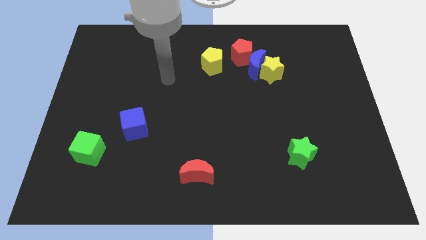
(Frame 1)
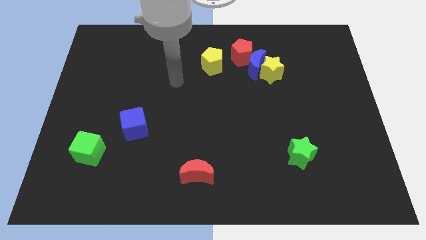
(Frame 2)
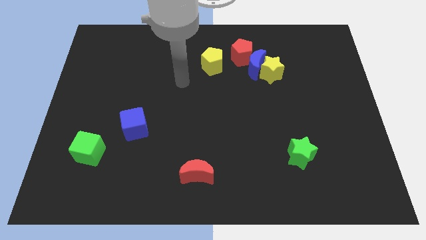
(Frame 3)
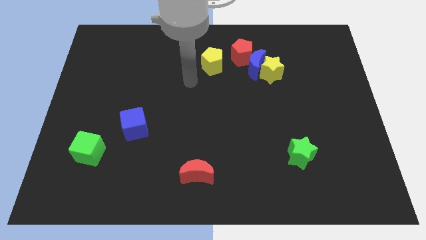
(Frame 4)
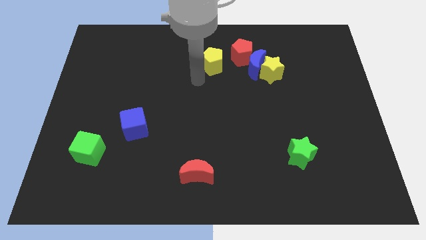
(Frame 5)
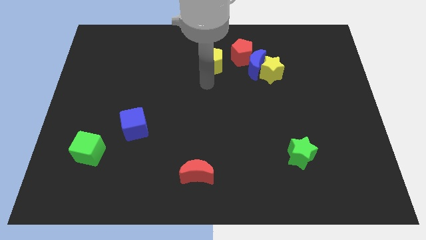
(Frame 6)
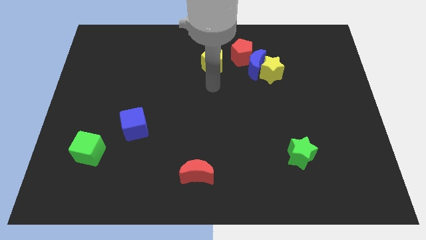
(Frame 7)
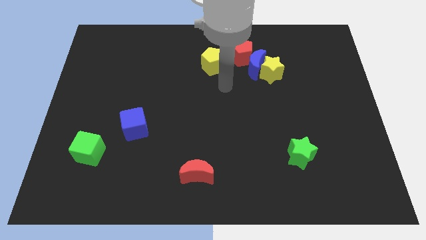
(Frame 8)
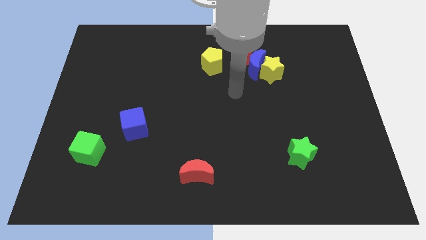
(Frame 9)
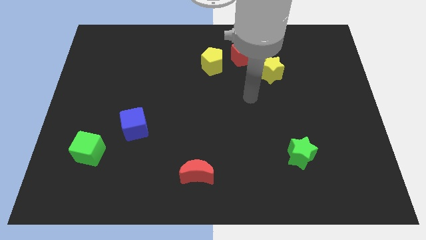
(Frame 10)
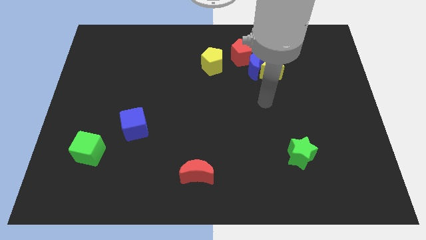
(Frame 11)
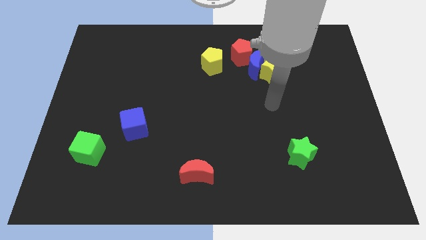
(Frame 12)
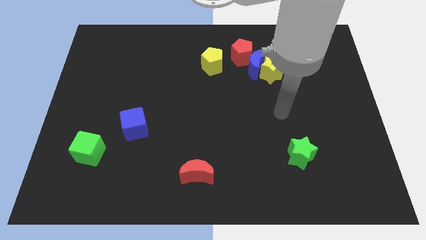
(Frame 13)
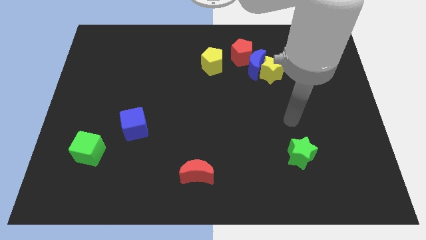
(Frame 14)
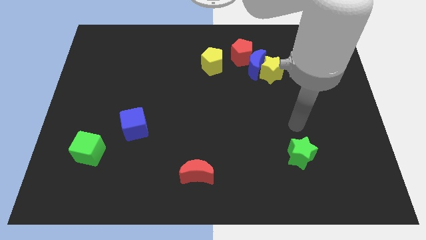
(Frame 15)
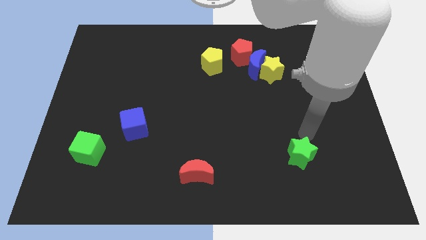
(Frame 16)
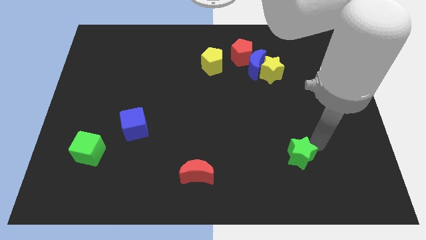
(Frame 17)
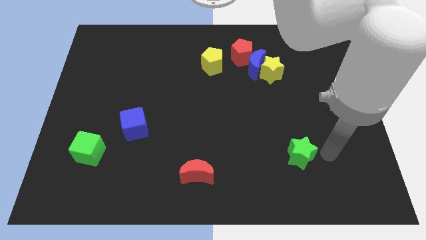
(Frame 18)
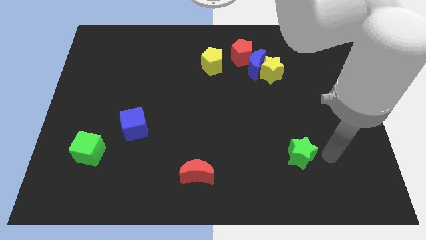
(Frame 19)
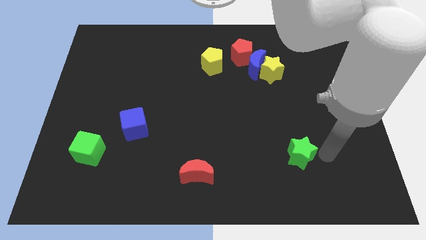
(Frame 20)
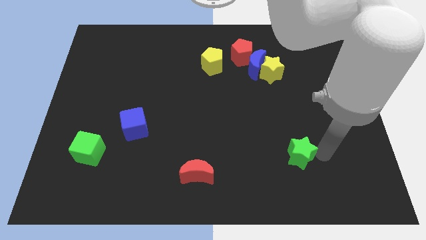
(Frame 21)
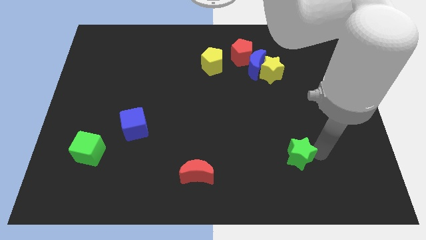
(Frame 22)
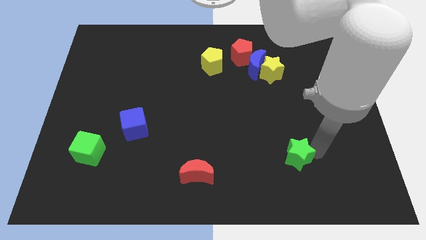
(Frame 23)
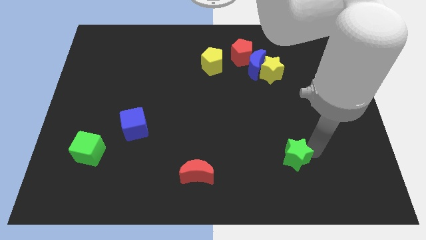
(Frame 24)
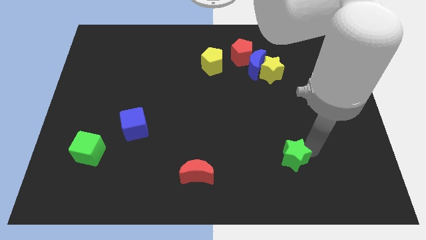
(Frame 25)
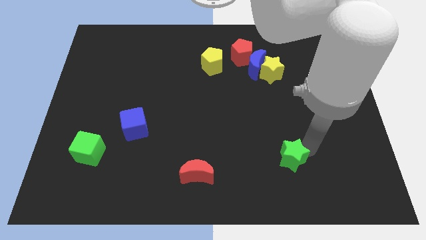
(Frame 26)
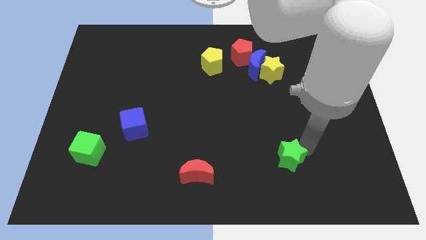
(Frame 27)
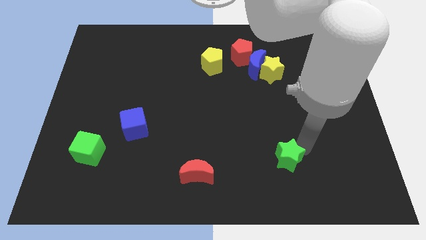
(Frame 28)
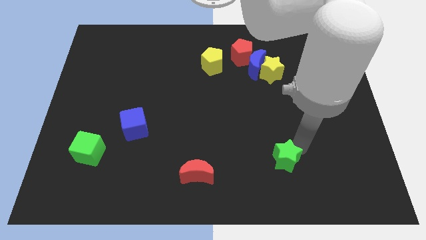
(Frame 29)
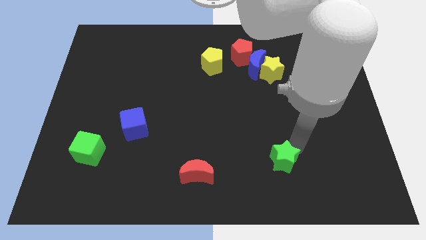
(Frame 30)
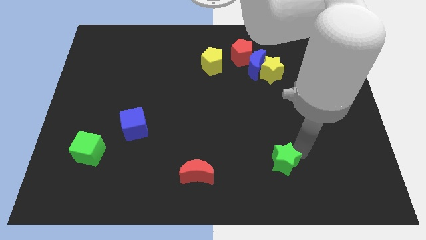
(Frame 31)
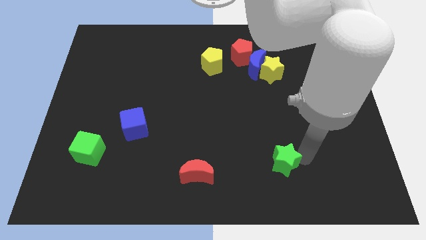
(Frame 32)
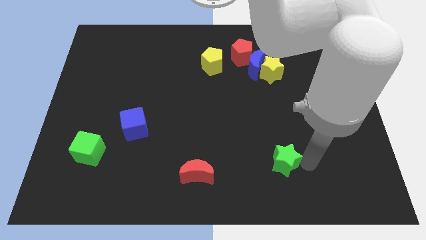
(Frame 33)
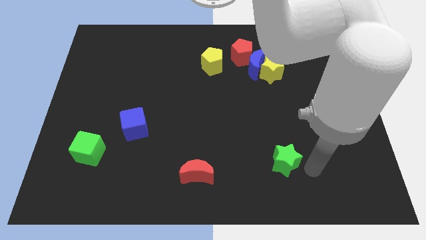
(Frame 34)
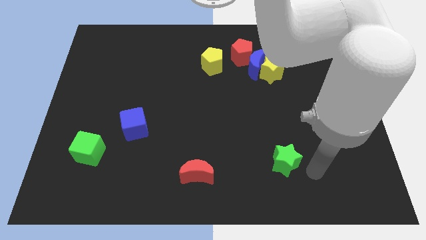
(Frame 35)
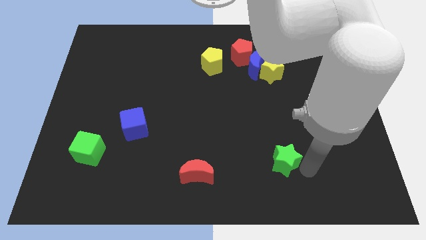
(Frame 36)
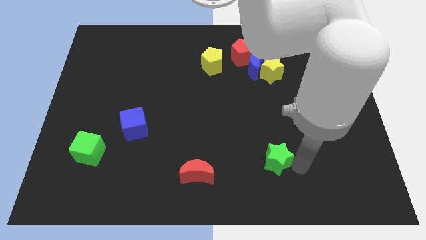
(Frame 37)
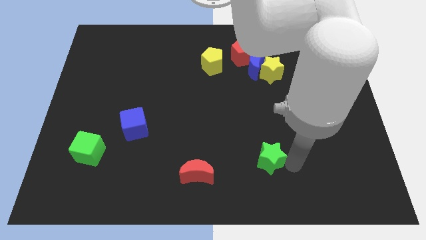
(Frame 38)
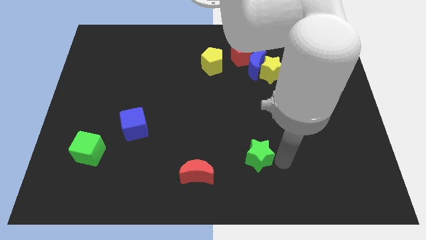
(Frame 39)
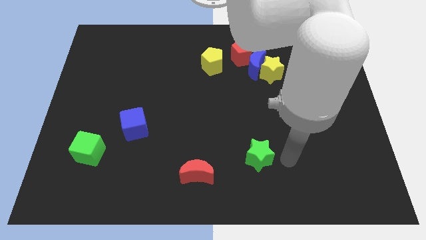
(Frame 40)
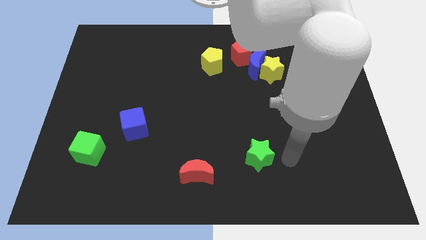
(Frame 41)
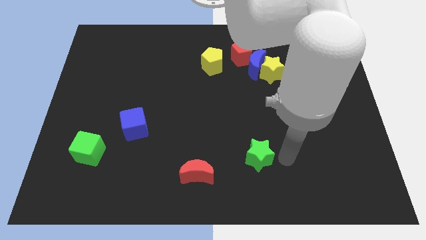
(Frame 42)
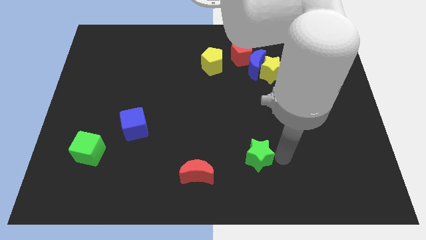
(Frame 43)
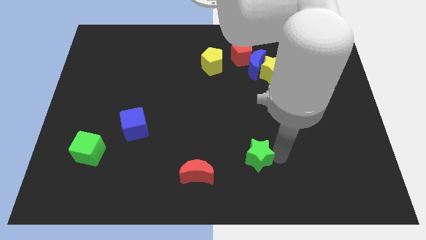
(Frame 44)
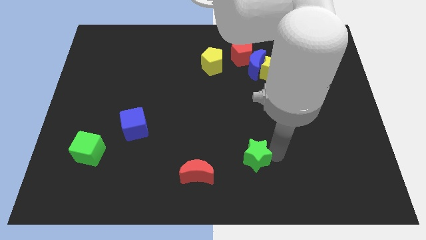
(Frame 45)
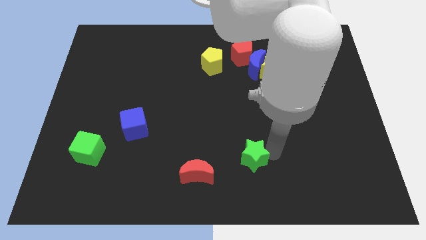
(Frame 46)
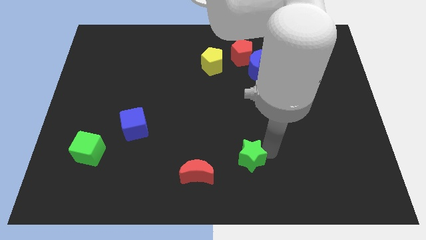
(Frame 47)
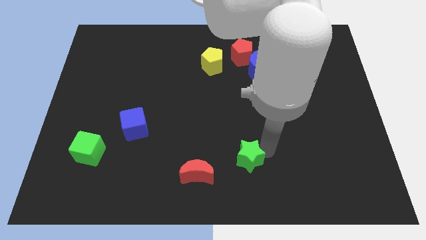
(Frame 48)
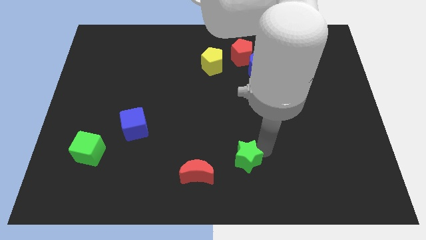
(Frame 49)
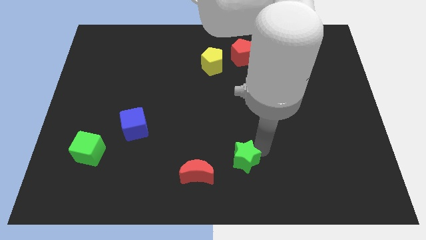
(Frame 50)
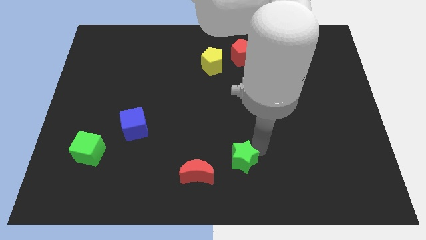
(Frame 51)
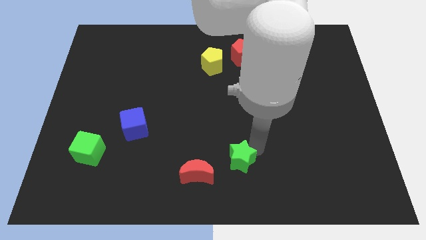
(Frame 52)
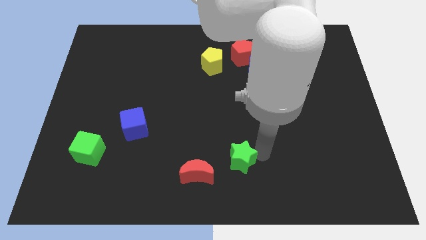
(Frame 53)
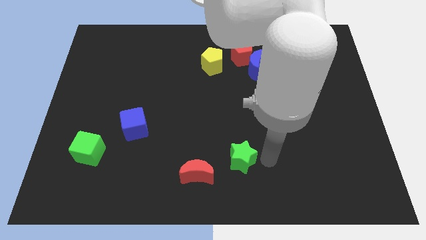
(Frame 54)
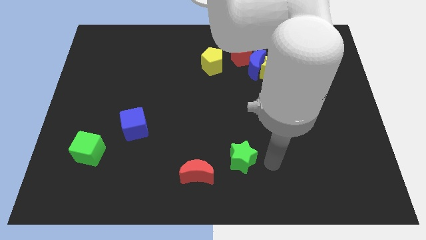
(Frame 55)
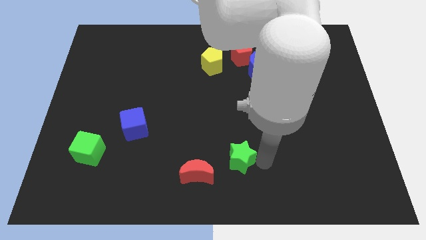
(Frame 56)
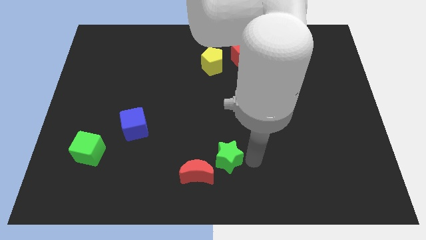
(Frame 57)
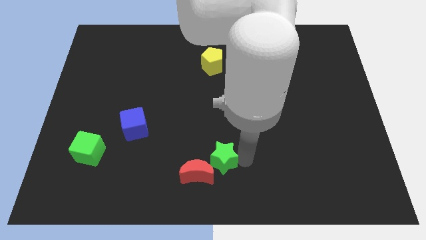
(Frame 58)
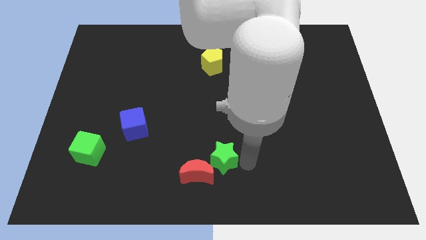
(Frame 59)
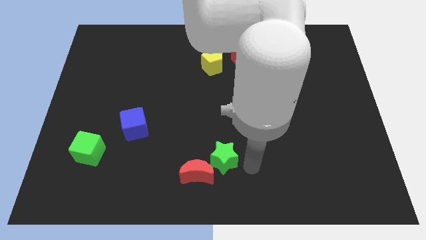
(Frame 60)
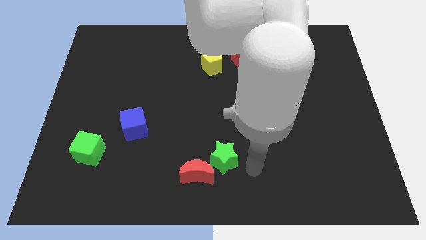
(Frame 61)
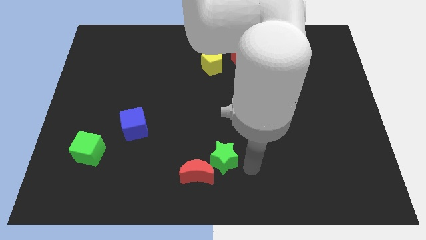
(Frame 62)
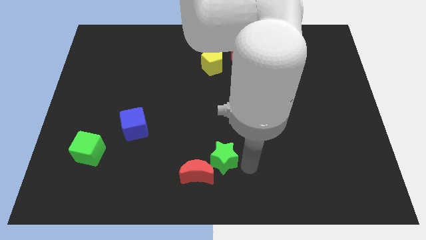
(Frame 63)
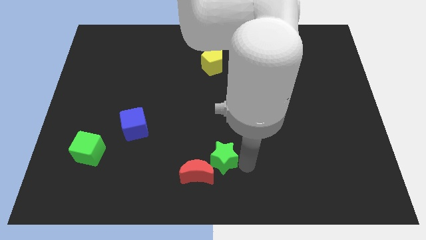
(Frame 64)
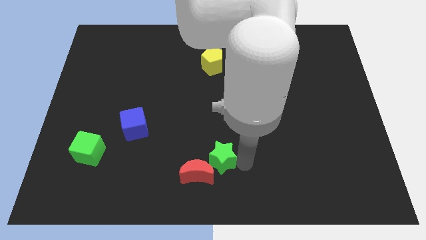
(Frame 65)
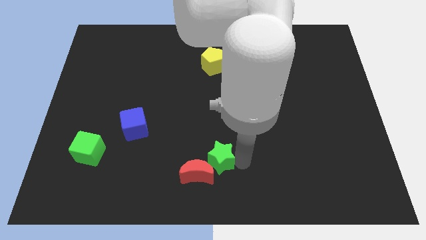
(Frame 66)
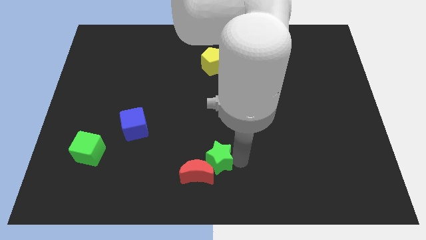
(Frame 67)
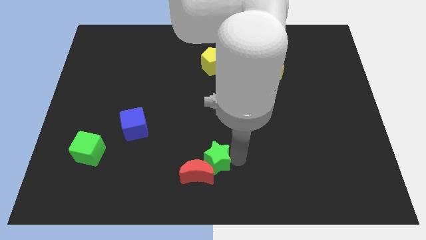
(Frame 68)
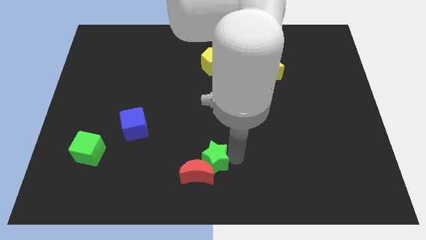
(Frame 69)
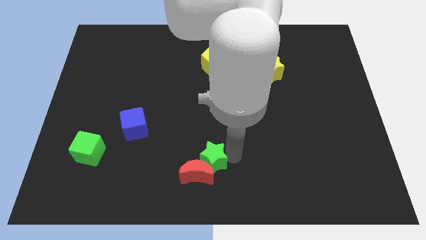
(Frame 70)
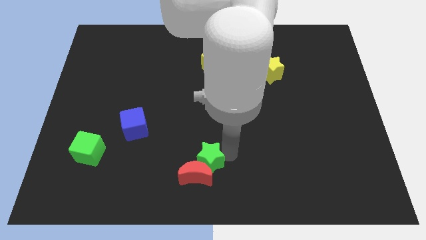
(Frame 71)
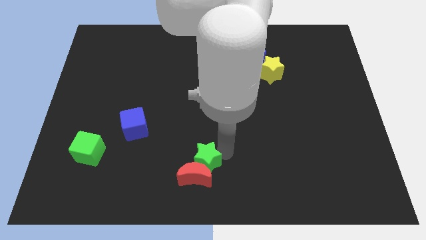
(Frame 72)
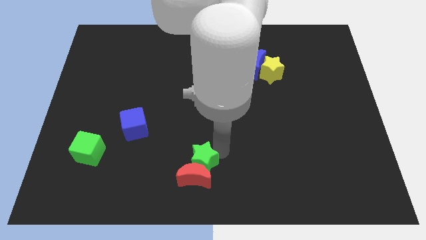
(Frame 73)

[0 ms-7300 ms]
slide the green star diagonally up and to the left of the red moon

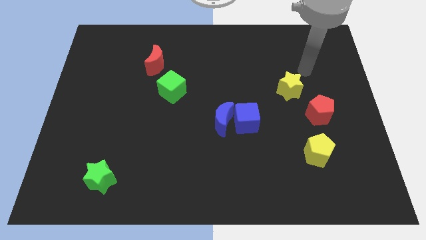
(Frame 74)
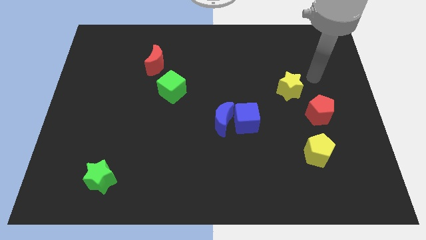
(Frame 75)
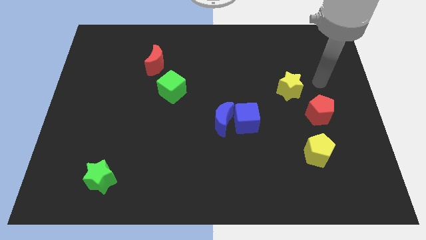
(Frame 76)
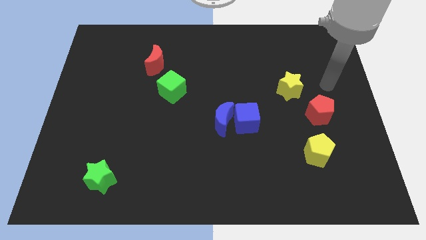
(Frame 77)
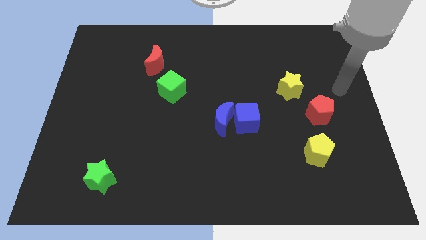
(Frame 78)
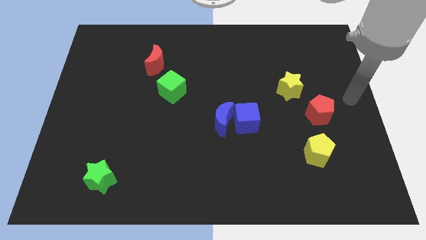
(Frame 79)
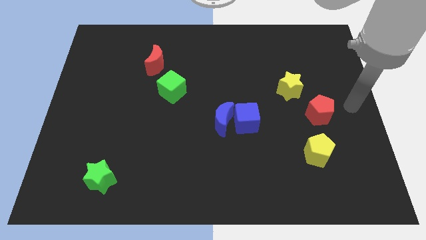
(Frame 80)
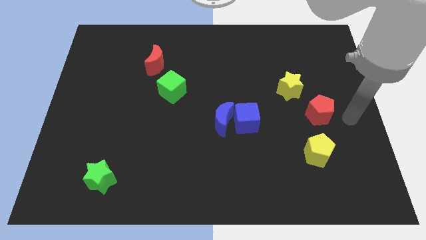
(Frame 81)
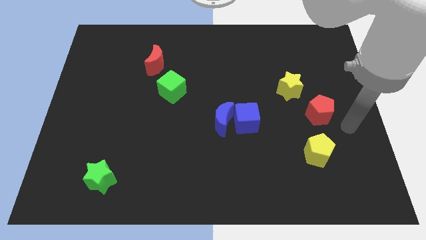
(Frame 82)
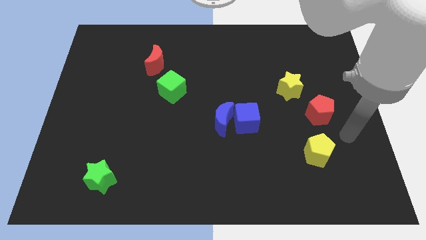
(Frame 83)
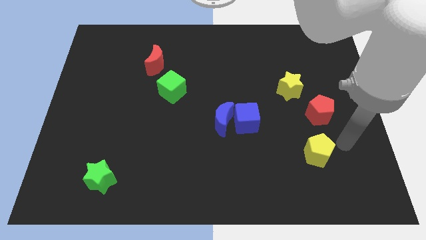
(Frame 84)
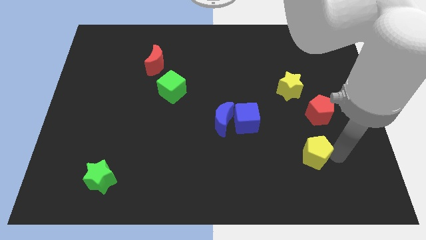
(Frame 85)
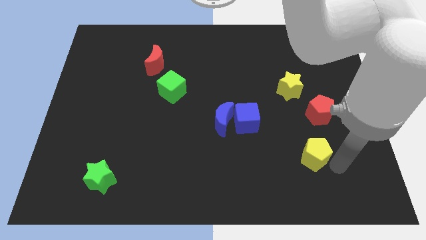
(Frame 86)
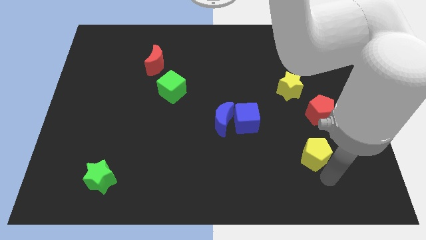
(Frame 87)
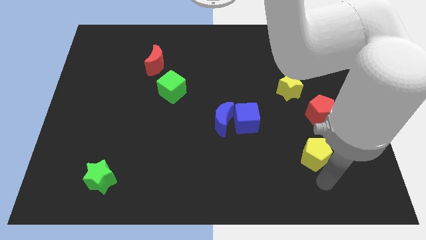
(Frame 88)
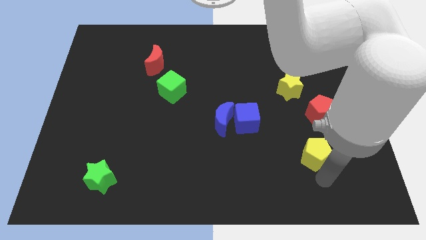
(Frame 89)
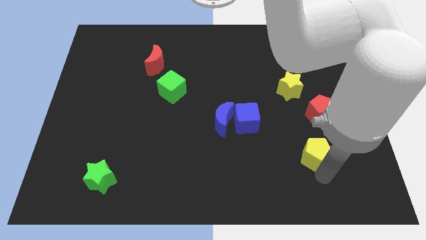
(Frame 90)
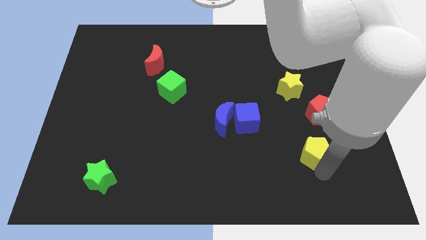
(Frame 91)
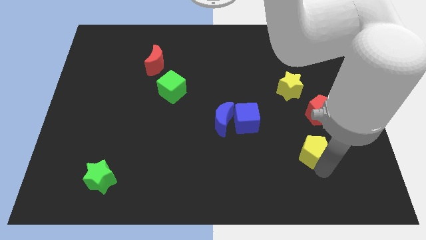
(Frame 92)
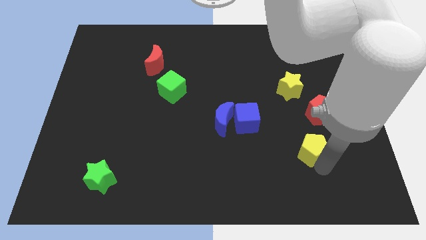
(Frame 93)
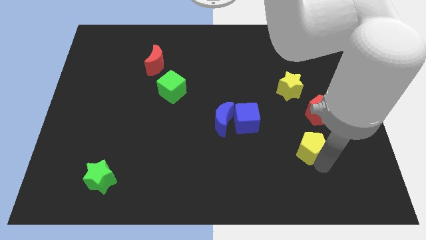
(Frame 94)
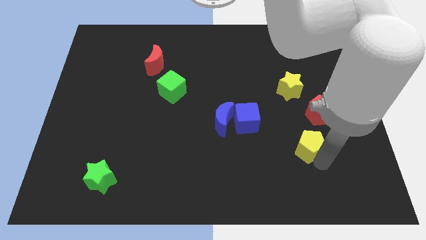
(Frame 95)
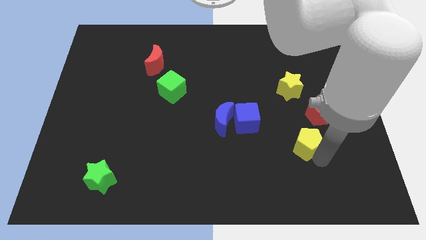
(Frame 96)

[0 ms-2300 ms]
slide the yellow pentagon below the yellow star
